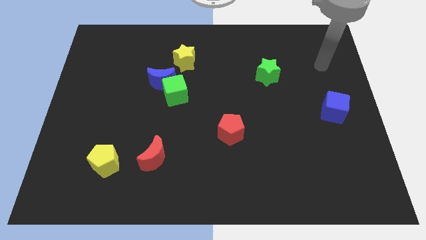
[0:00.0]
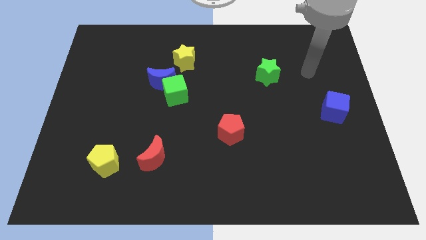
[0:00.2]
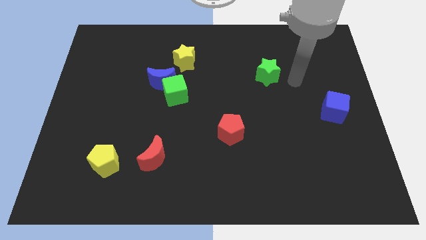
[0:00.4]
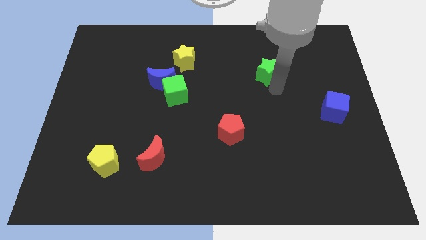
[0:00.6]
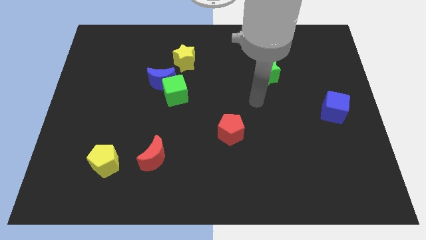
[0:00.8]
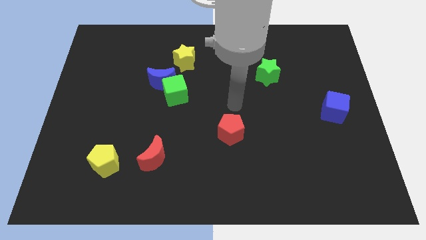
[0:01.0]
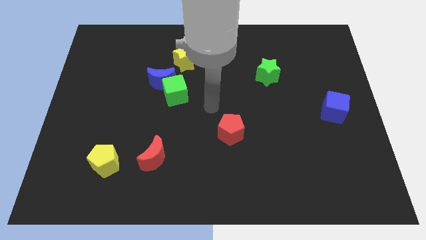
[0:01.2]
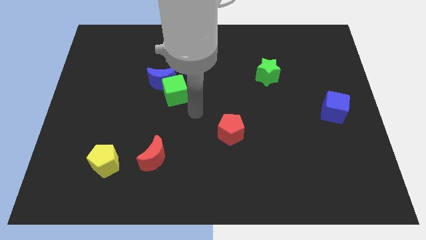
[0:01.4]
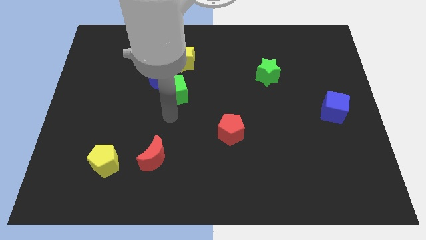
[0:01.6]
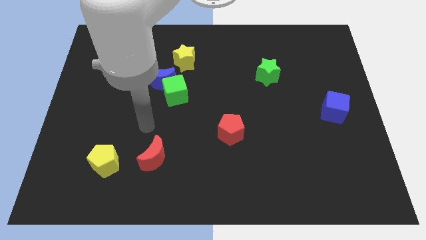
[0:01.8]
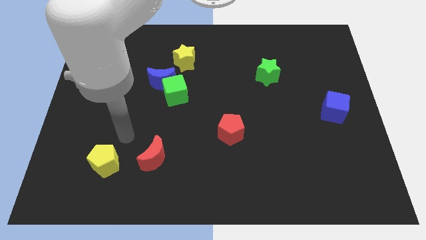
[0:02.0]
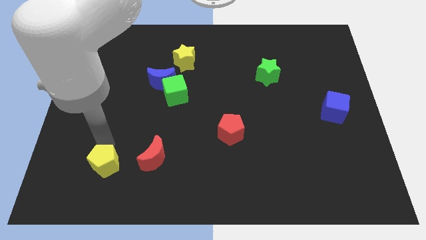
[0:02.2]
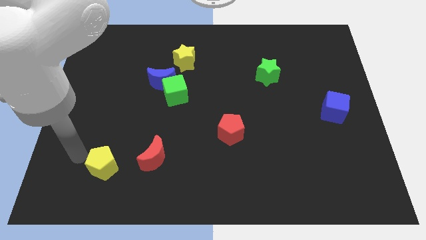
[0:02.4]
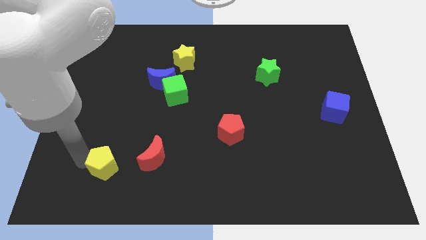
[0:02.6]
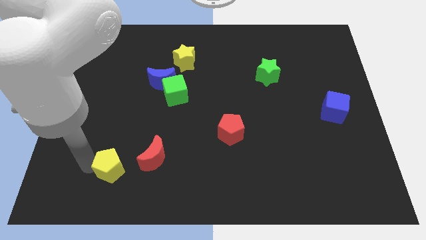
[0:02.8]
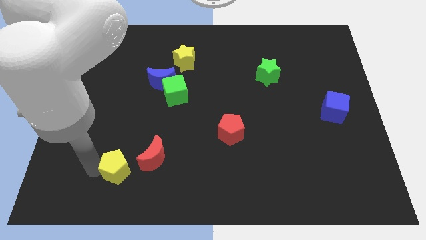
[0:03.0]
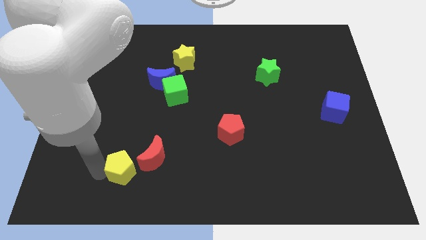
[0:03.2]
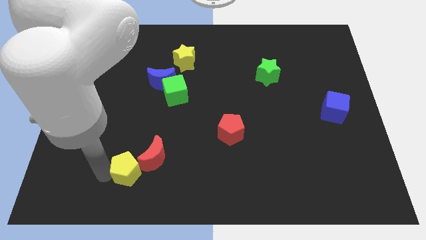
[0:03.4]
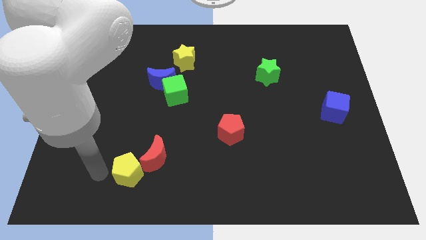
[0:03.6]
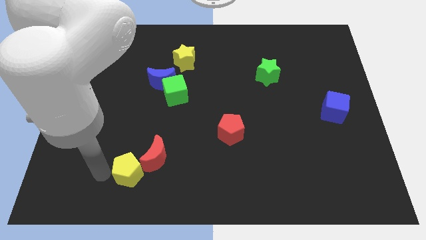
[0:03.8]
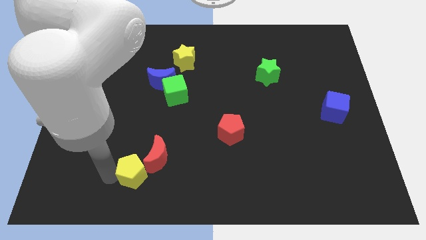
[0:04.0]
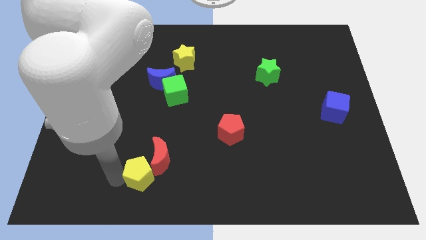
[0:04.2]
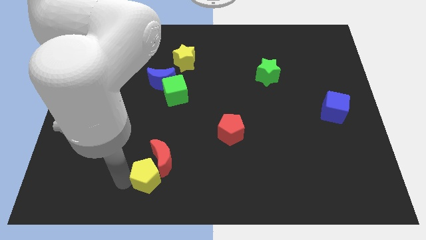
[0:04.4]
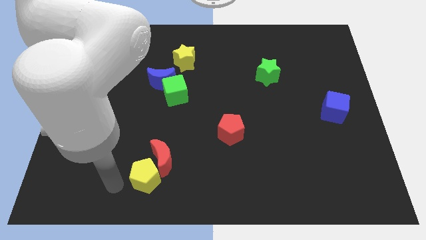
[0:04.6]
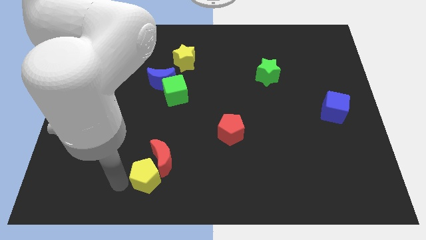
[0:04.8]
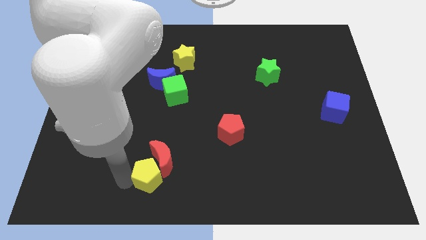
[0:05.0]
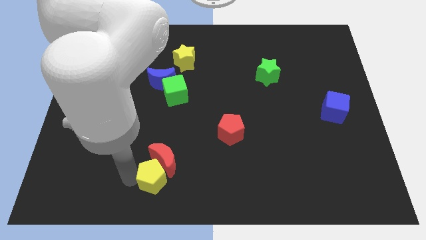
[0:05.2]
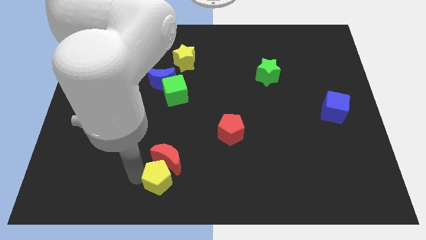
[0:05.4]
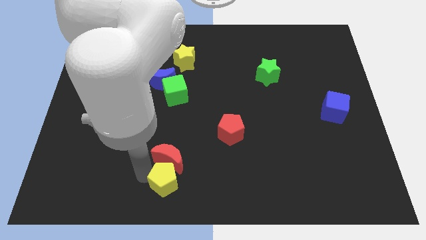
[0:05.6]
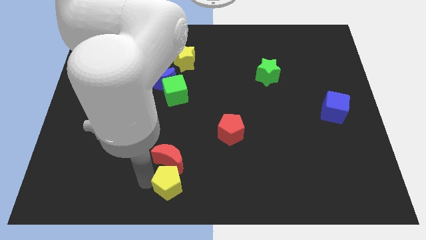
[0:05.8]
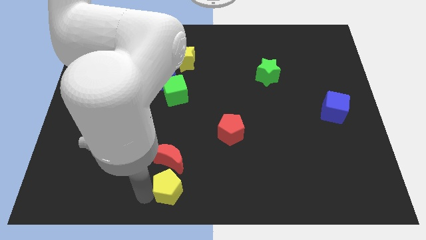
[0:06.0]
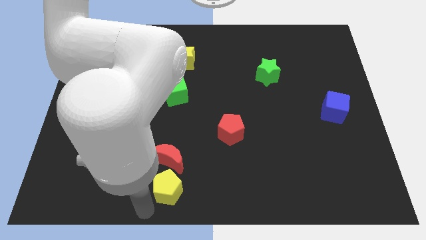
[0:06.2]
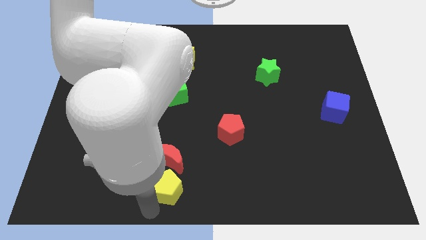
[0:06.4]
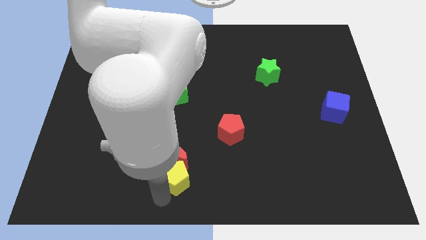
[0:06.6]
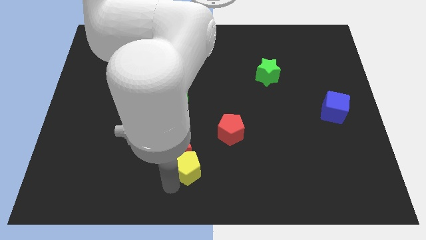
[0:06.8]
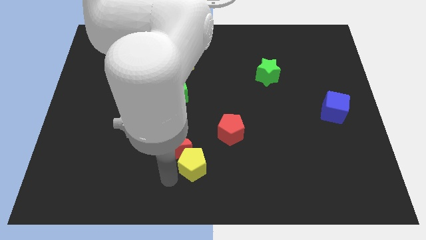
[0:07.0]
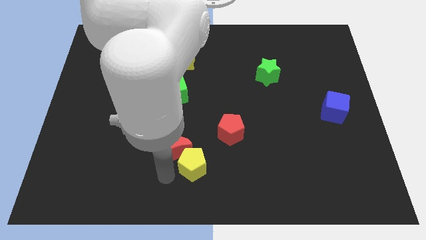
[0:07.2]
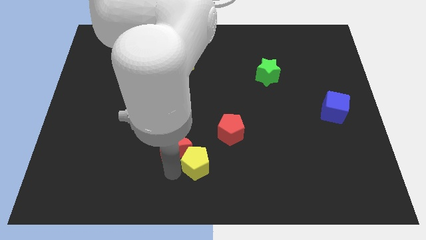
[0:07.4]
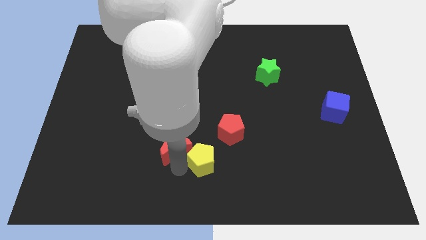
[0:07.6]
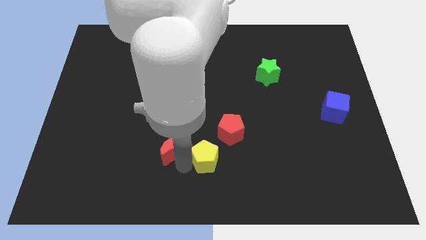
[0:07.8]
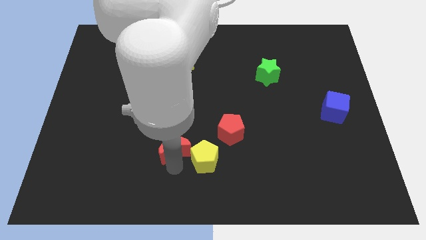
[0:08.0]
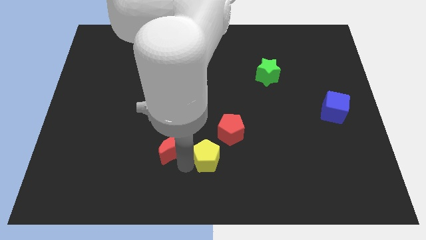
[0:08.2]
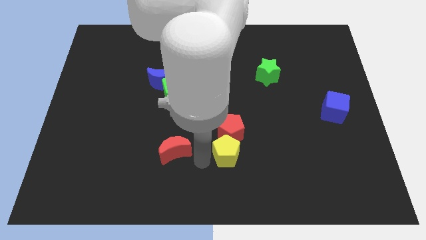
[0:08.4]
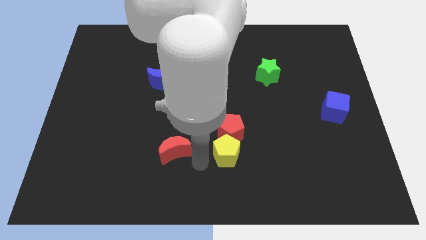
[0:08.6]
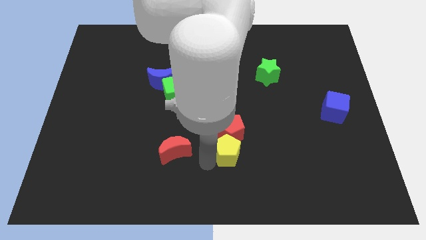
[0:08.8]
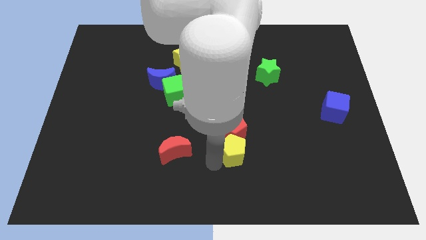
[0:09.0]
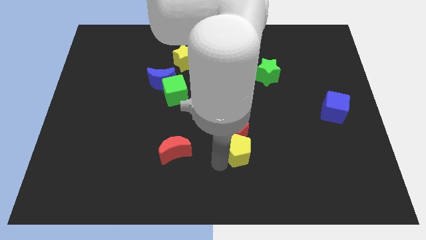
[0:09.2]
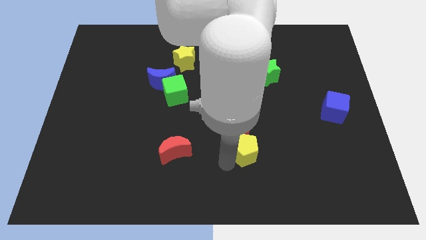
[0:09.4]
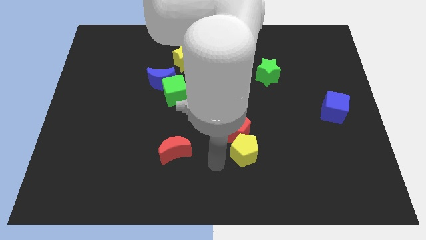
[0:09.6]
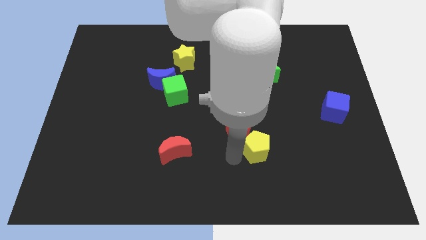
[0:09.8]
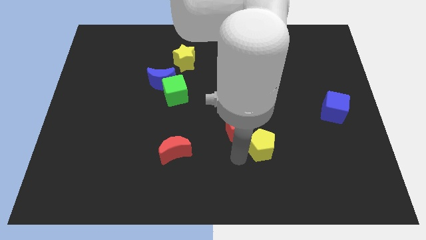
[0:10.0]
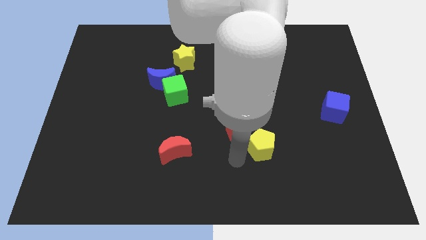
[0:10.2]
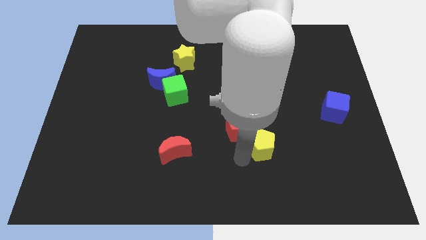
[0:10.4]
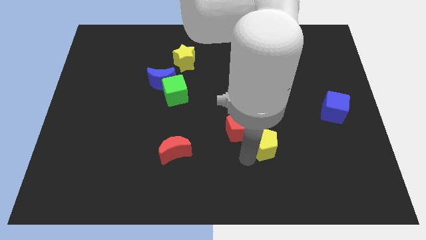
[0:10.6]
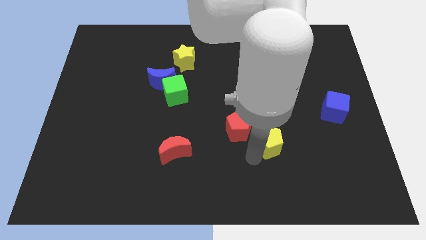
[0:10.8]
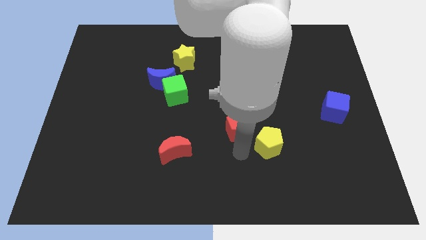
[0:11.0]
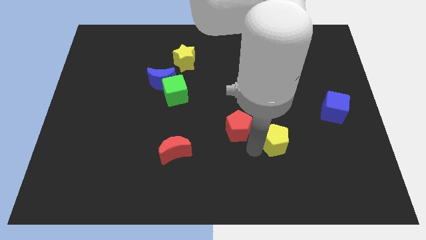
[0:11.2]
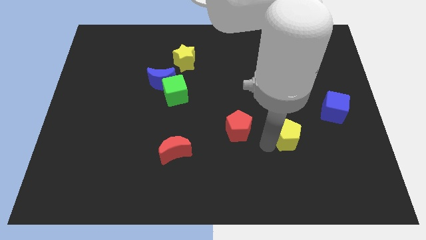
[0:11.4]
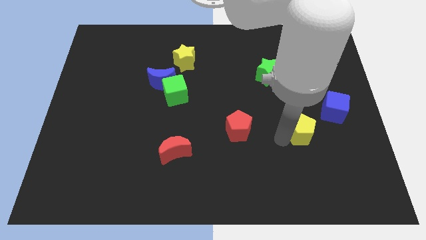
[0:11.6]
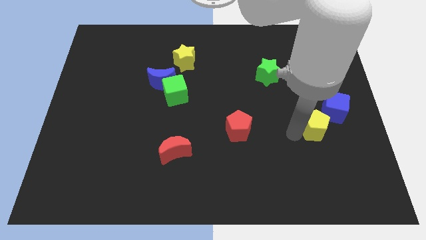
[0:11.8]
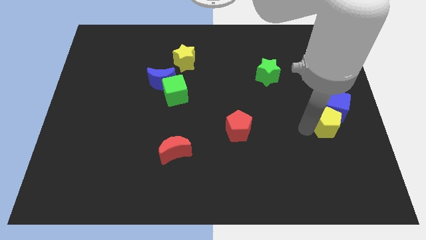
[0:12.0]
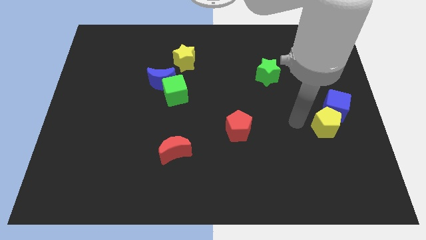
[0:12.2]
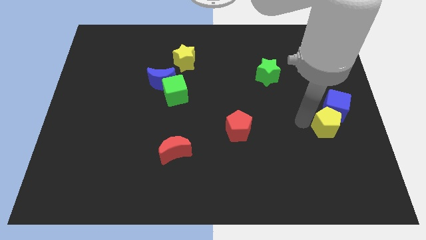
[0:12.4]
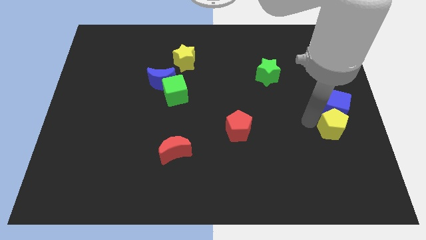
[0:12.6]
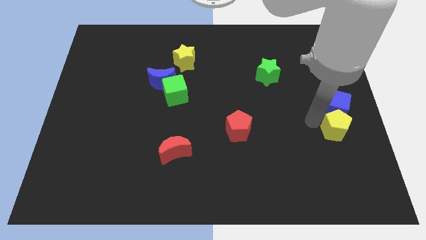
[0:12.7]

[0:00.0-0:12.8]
slide the yellow pentagon to the right side of the board
